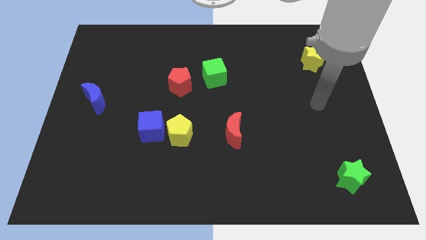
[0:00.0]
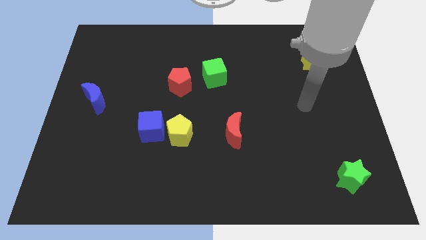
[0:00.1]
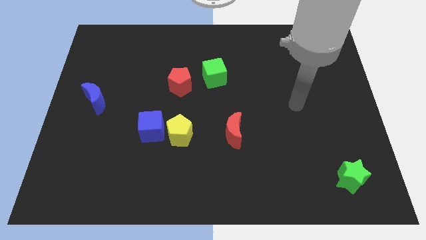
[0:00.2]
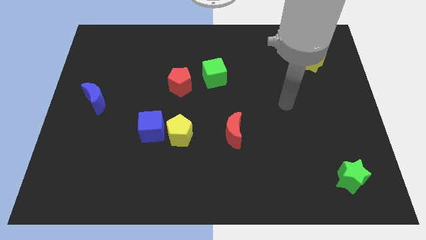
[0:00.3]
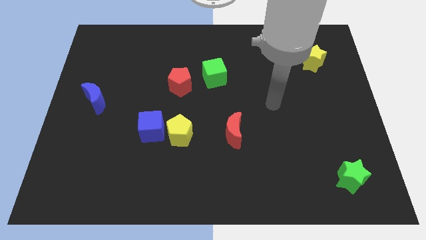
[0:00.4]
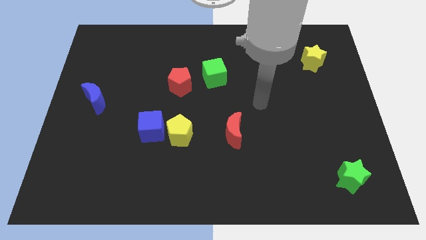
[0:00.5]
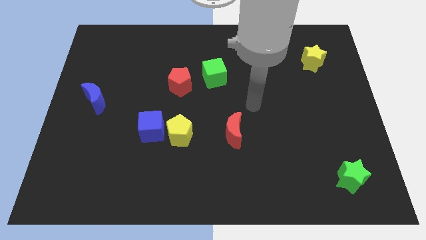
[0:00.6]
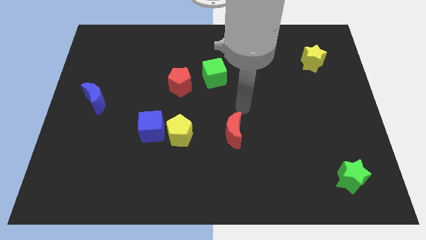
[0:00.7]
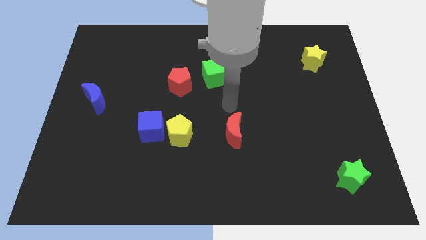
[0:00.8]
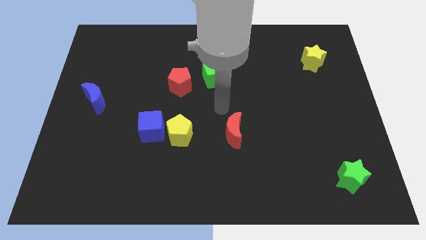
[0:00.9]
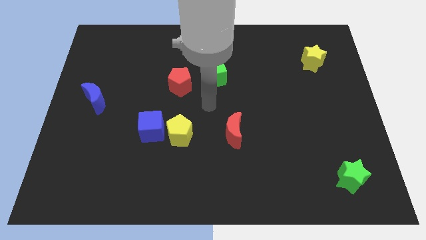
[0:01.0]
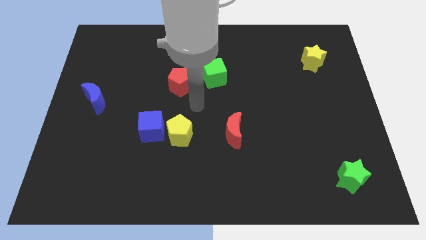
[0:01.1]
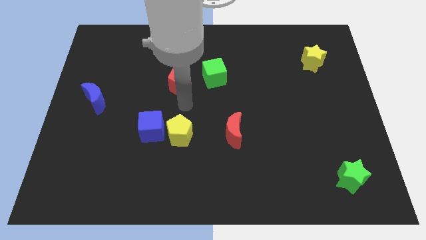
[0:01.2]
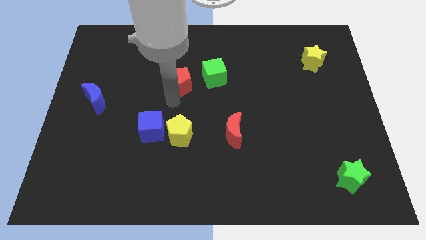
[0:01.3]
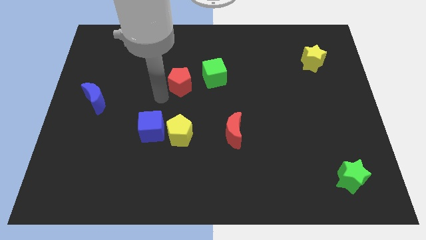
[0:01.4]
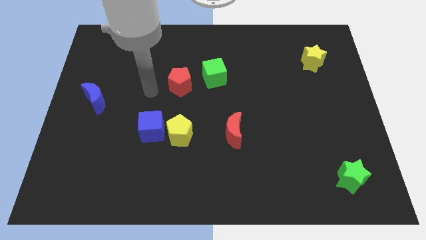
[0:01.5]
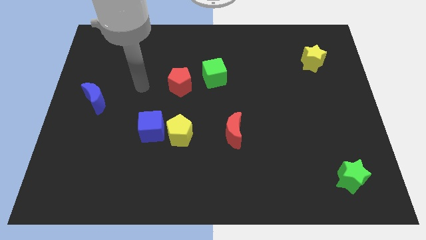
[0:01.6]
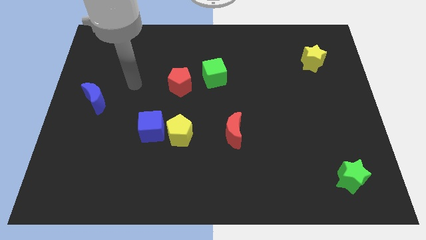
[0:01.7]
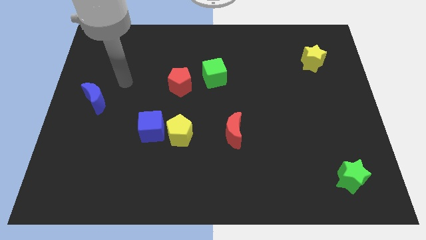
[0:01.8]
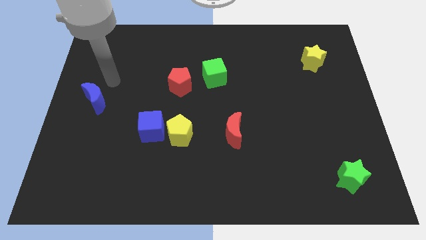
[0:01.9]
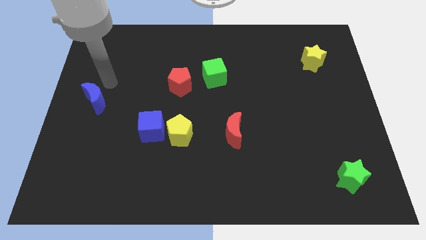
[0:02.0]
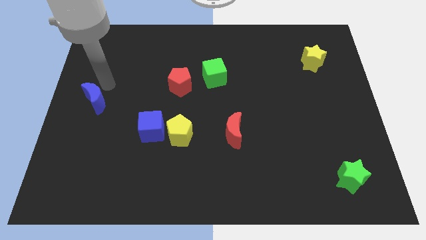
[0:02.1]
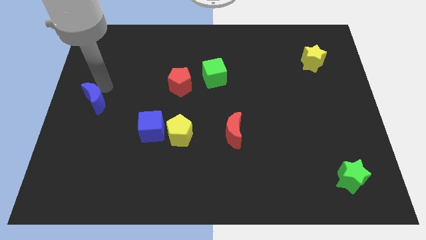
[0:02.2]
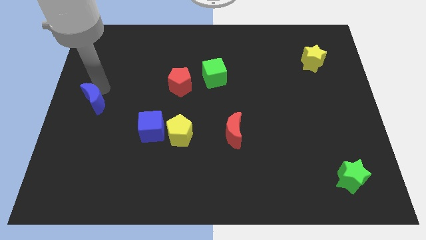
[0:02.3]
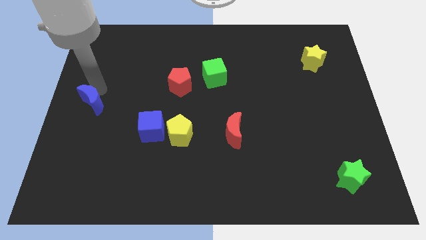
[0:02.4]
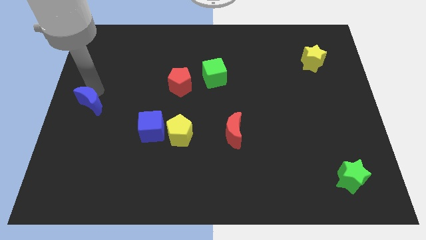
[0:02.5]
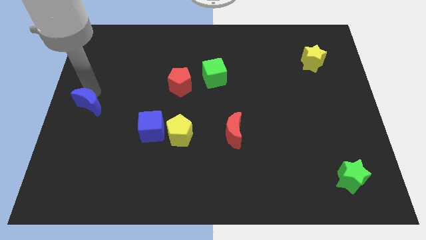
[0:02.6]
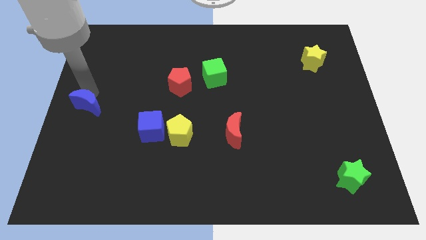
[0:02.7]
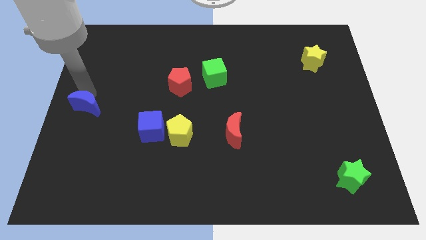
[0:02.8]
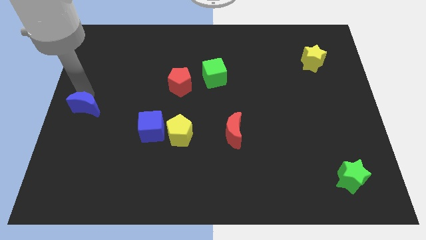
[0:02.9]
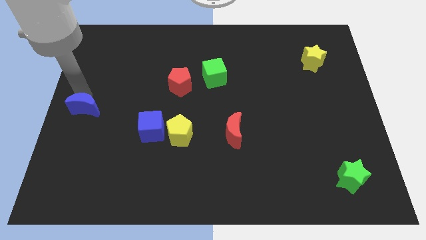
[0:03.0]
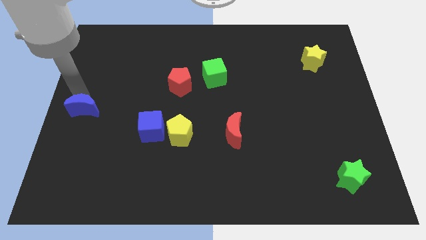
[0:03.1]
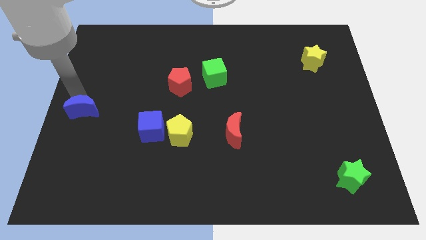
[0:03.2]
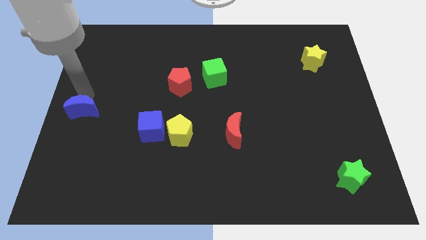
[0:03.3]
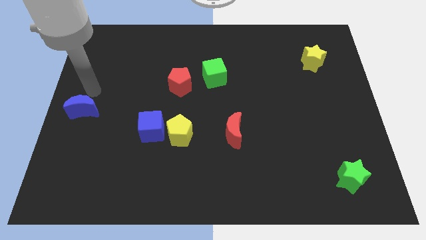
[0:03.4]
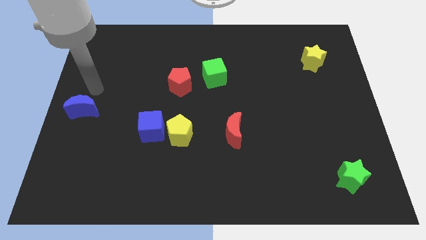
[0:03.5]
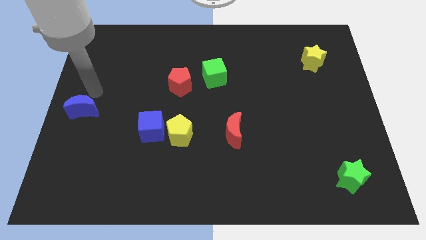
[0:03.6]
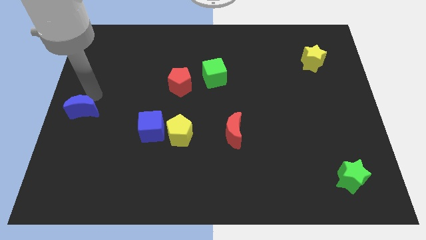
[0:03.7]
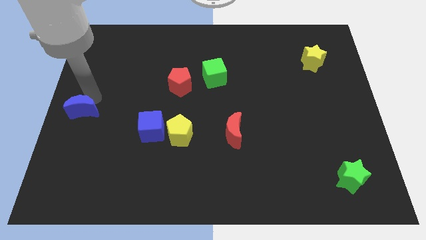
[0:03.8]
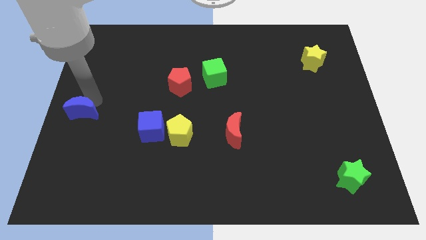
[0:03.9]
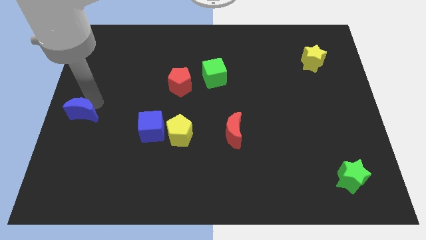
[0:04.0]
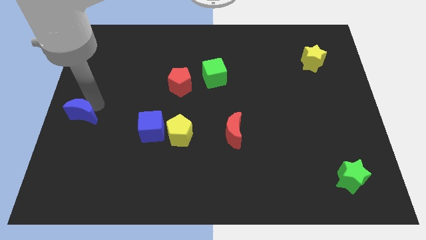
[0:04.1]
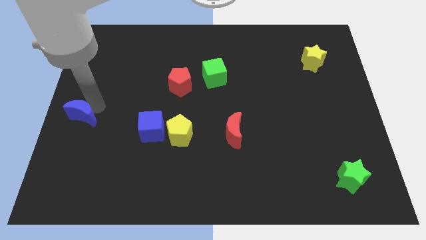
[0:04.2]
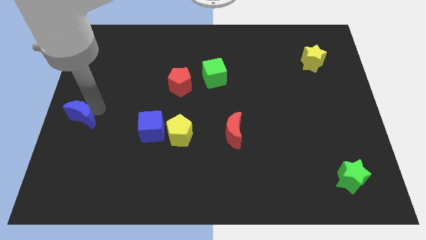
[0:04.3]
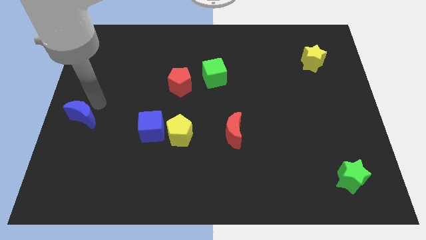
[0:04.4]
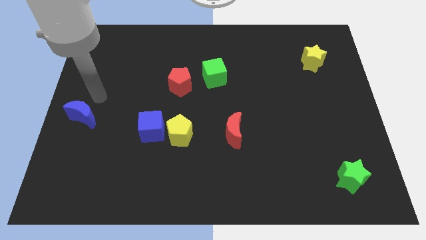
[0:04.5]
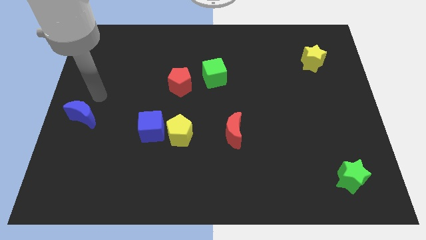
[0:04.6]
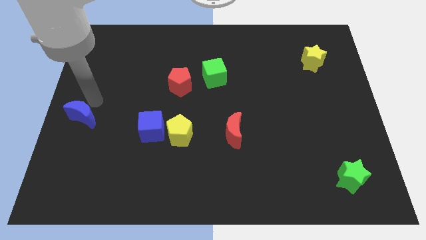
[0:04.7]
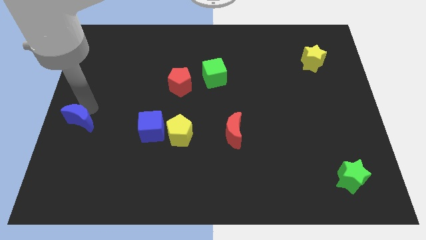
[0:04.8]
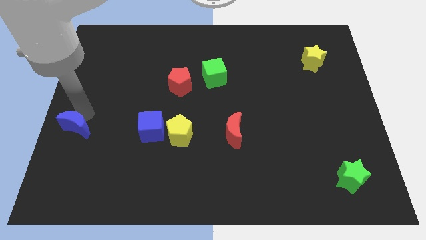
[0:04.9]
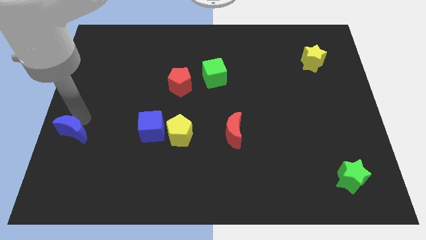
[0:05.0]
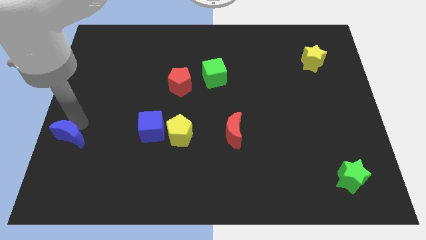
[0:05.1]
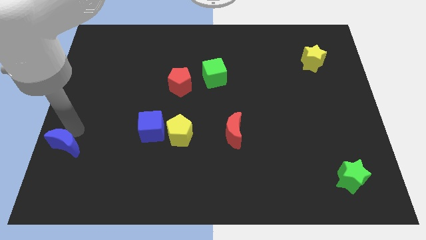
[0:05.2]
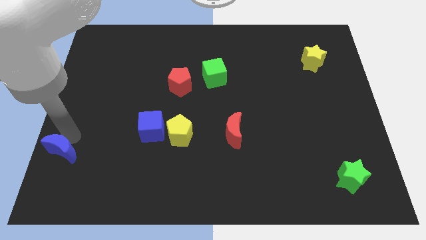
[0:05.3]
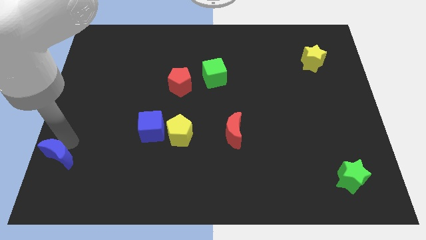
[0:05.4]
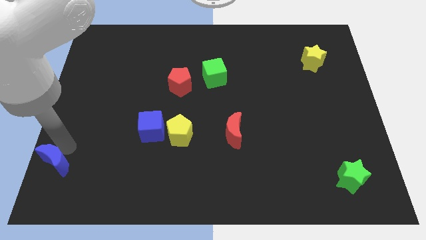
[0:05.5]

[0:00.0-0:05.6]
put the blue moon to the lower left corner

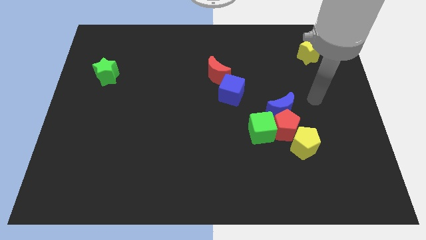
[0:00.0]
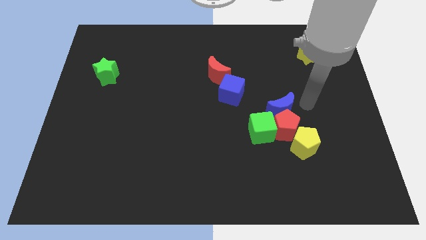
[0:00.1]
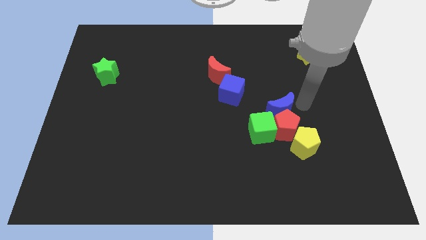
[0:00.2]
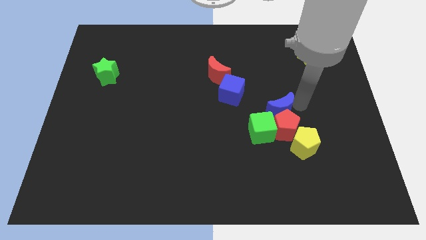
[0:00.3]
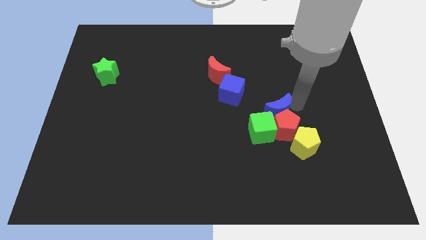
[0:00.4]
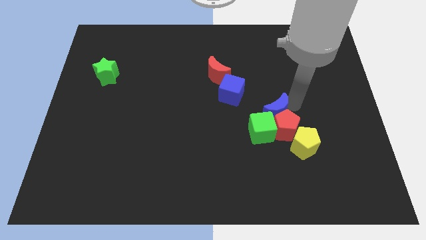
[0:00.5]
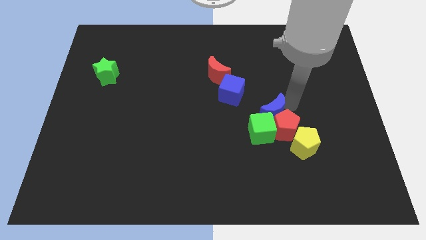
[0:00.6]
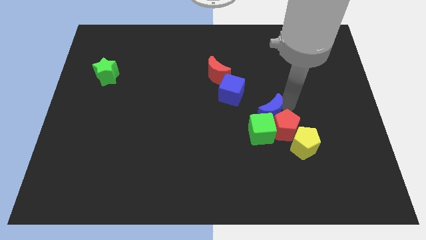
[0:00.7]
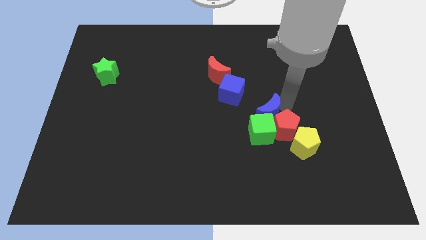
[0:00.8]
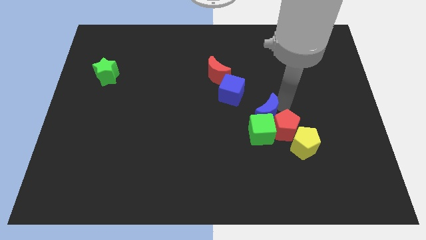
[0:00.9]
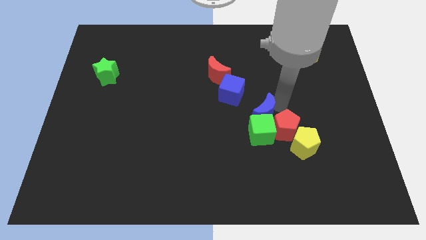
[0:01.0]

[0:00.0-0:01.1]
put the blue moon to the middle of the board
